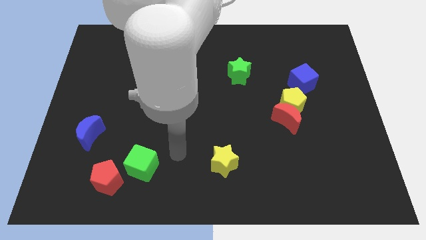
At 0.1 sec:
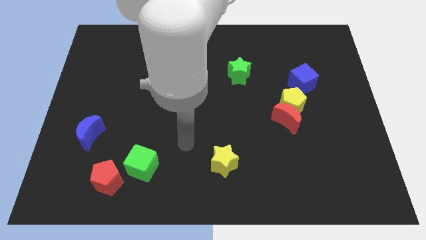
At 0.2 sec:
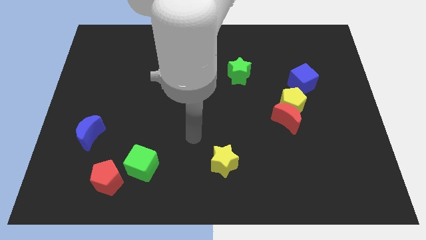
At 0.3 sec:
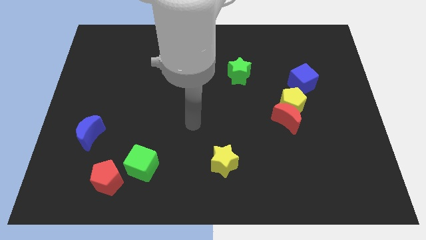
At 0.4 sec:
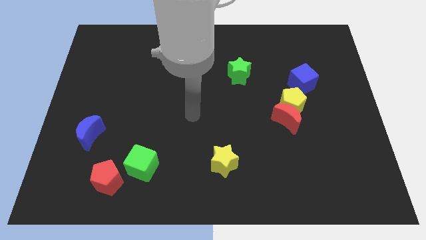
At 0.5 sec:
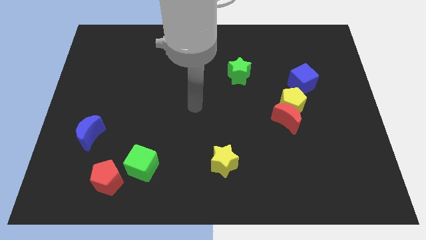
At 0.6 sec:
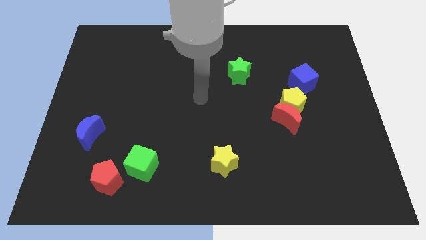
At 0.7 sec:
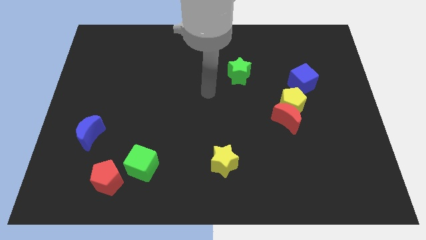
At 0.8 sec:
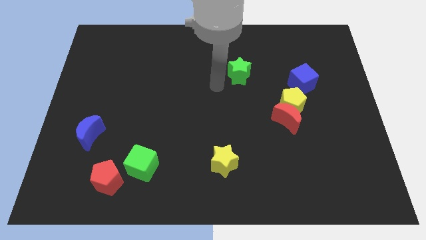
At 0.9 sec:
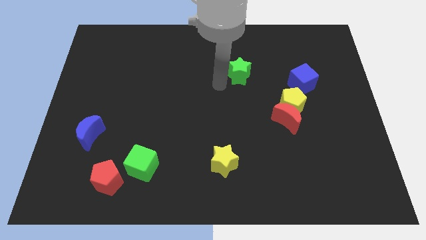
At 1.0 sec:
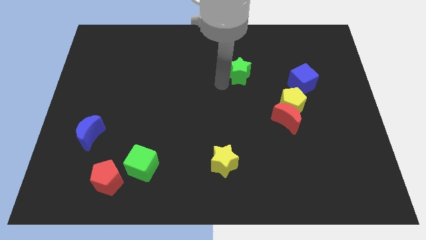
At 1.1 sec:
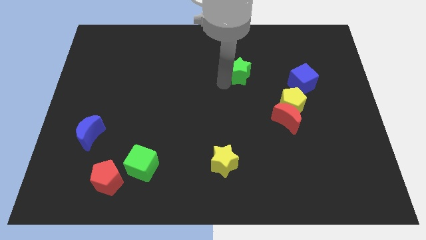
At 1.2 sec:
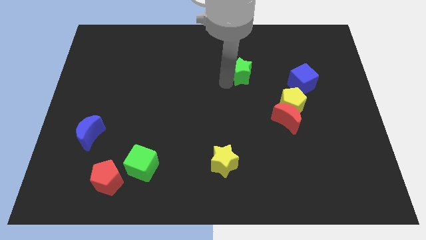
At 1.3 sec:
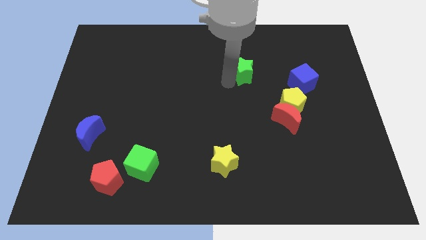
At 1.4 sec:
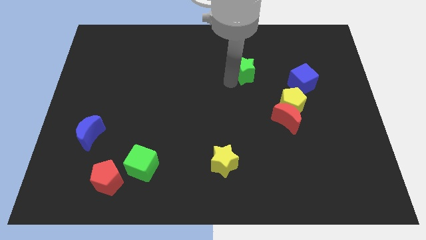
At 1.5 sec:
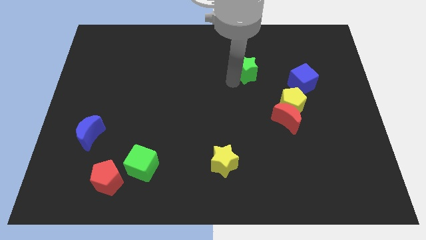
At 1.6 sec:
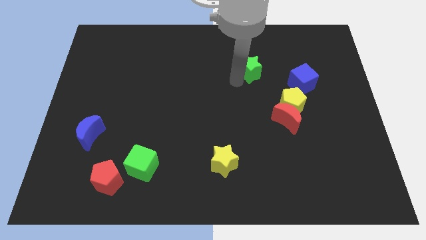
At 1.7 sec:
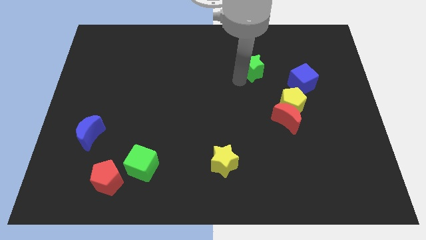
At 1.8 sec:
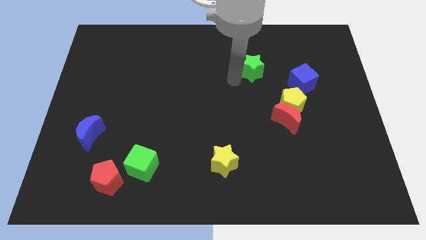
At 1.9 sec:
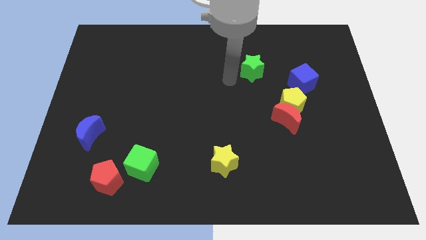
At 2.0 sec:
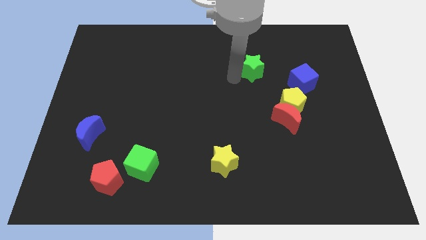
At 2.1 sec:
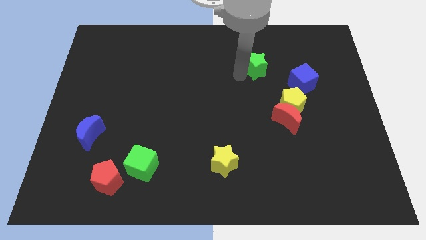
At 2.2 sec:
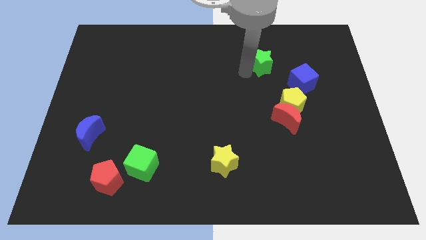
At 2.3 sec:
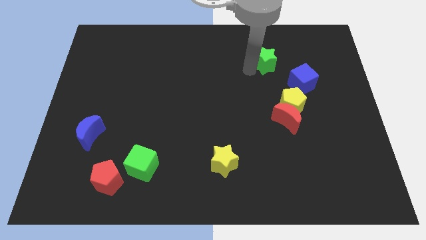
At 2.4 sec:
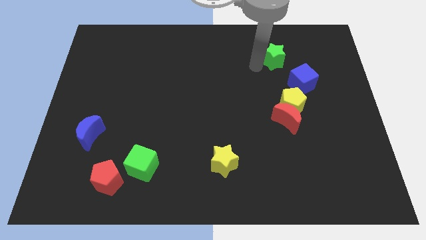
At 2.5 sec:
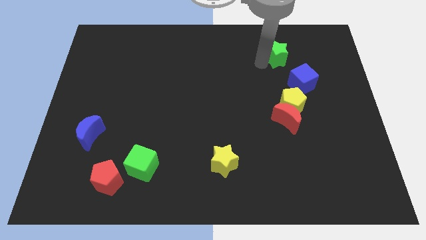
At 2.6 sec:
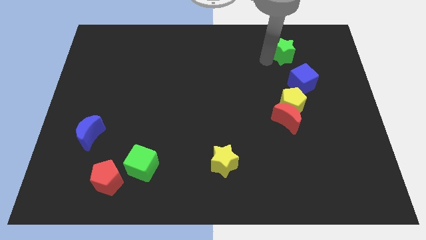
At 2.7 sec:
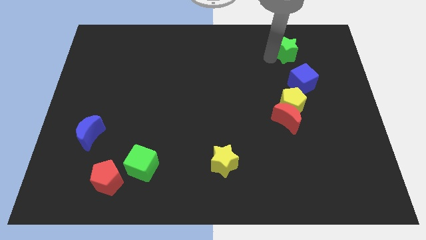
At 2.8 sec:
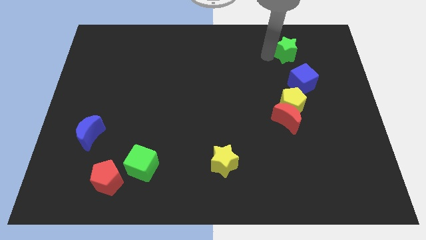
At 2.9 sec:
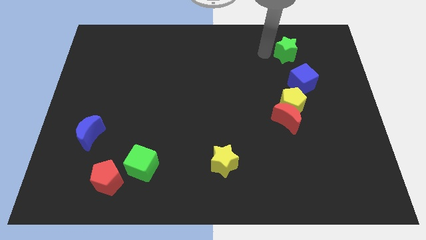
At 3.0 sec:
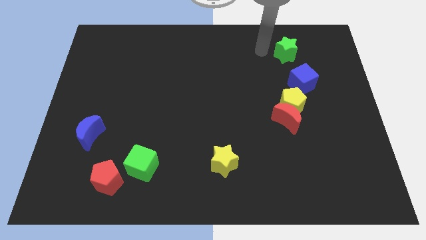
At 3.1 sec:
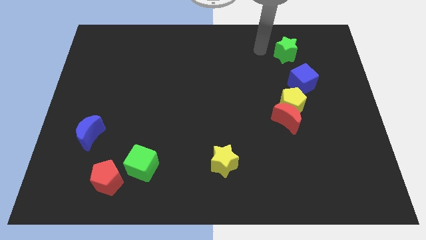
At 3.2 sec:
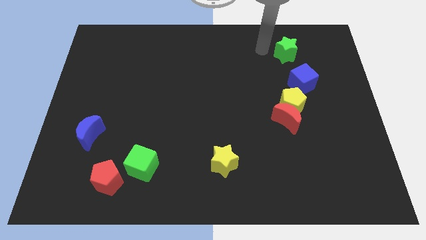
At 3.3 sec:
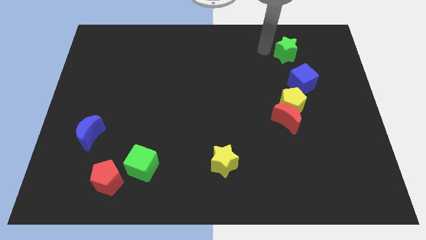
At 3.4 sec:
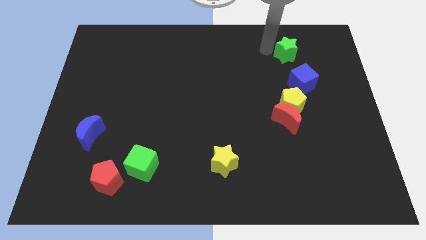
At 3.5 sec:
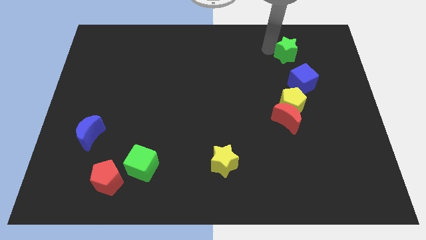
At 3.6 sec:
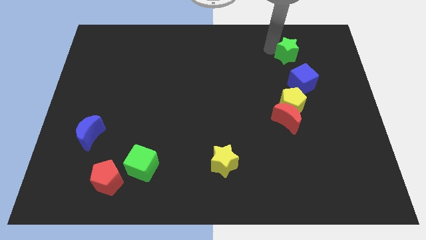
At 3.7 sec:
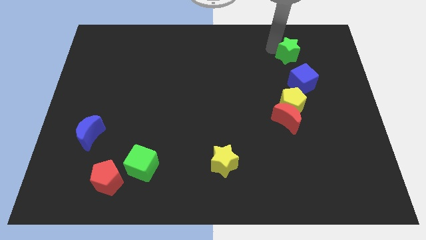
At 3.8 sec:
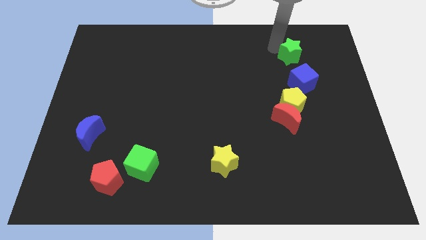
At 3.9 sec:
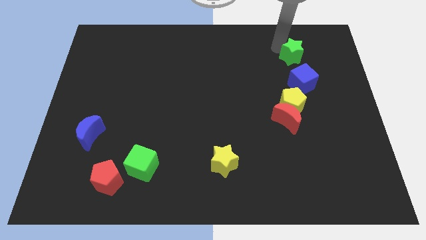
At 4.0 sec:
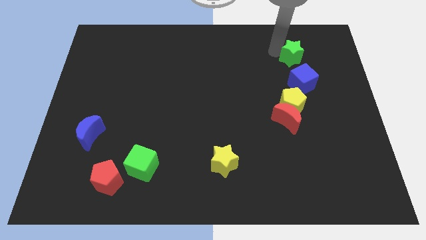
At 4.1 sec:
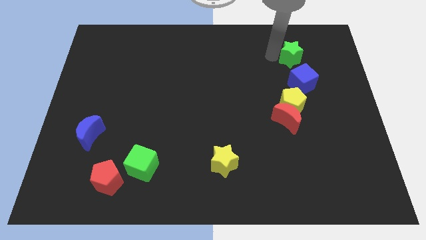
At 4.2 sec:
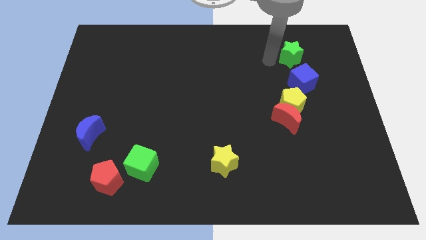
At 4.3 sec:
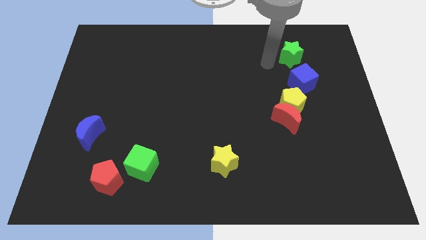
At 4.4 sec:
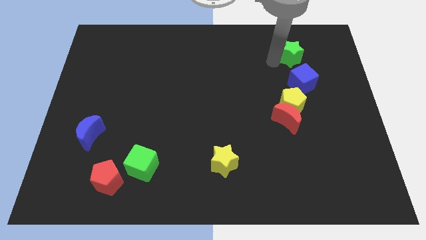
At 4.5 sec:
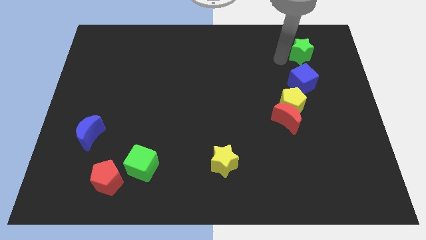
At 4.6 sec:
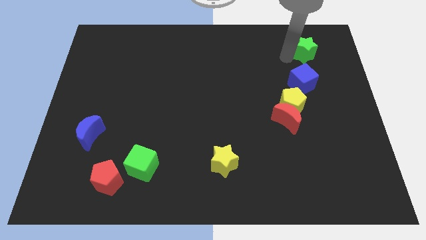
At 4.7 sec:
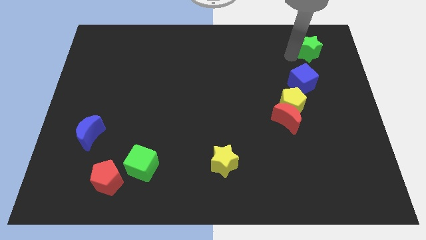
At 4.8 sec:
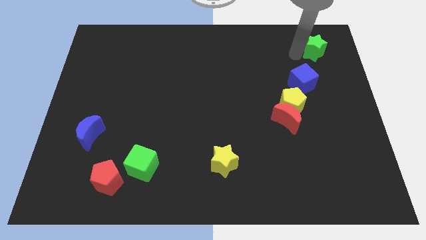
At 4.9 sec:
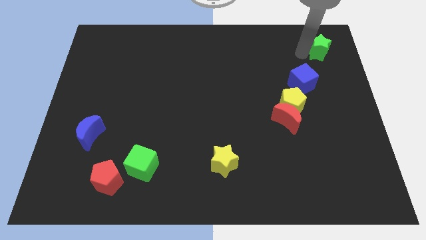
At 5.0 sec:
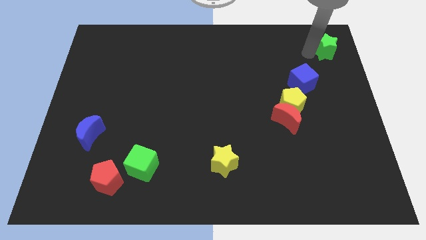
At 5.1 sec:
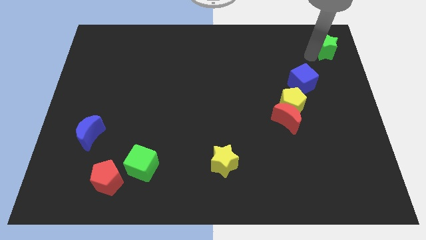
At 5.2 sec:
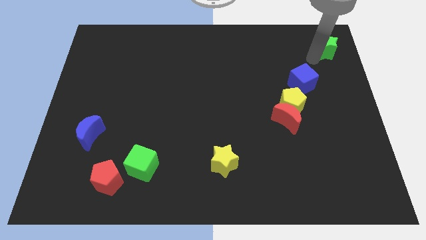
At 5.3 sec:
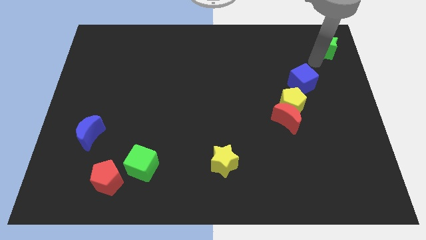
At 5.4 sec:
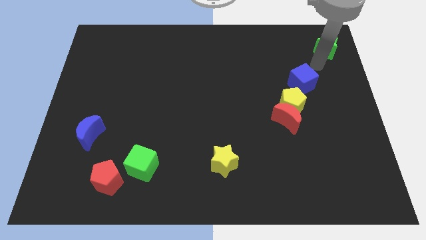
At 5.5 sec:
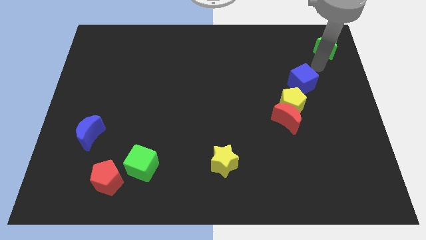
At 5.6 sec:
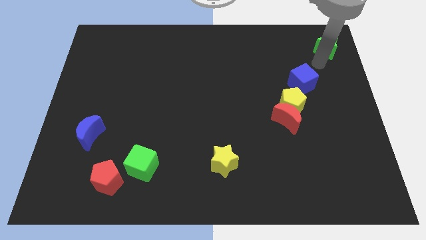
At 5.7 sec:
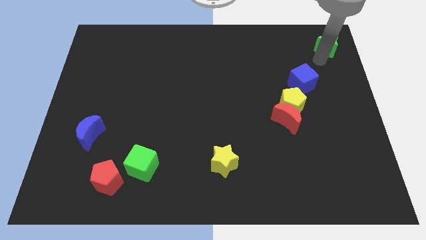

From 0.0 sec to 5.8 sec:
slide the green star to the top right corner
